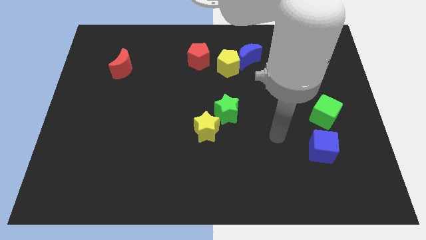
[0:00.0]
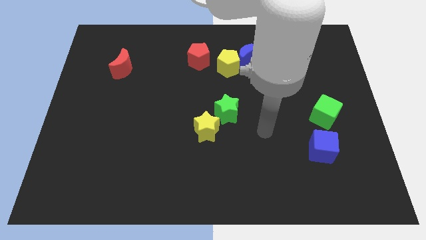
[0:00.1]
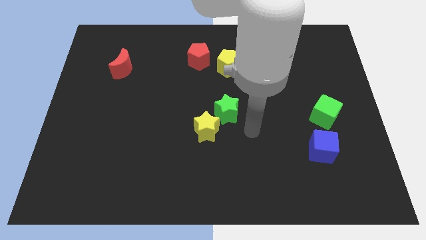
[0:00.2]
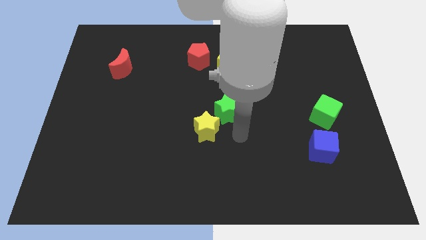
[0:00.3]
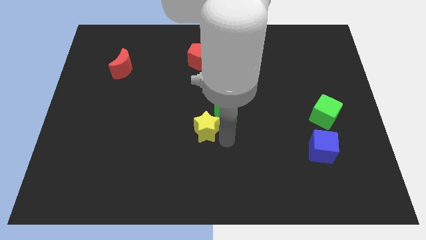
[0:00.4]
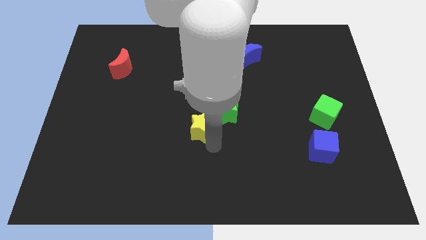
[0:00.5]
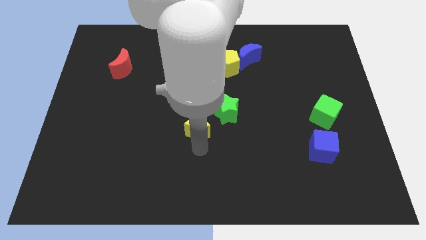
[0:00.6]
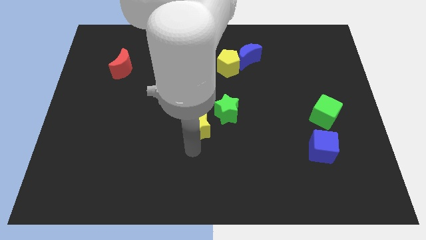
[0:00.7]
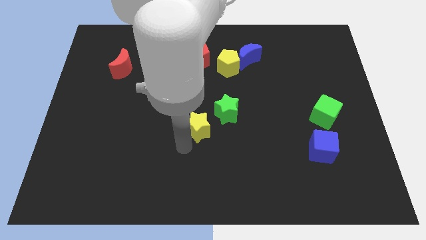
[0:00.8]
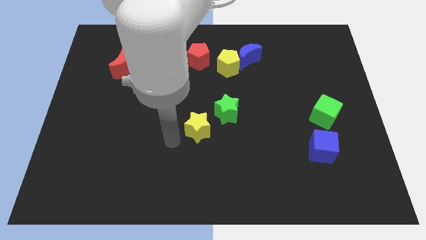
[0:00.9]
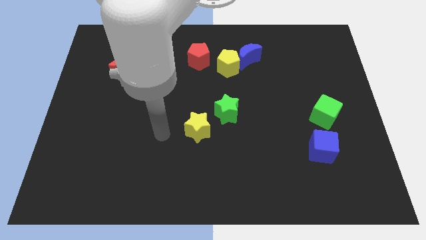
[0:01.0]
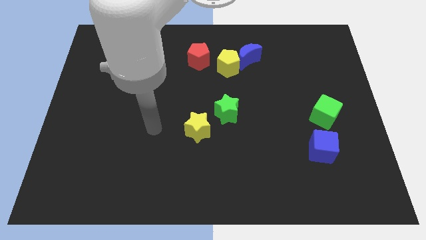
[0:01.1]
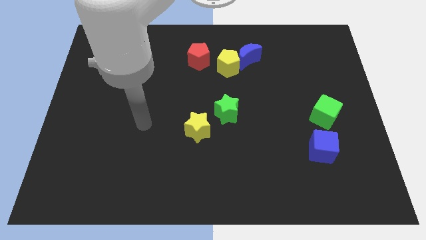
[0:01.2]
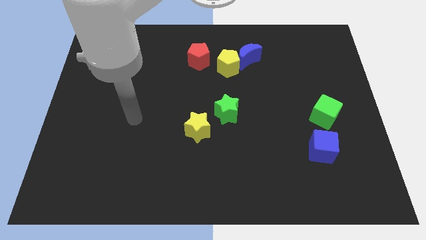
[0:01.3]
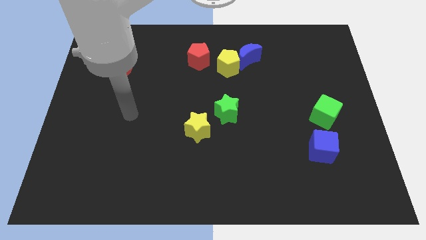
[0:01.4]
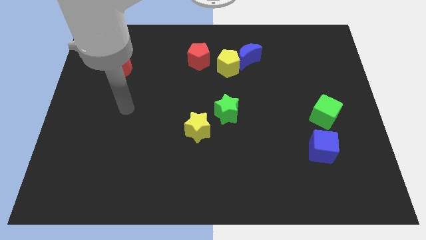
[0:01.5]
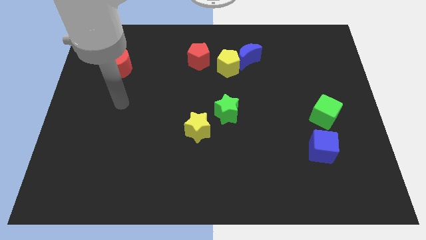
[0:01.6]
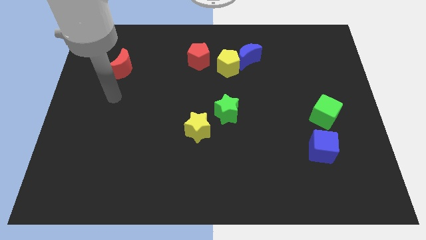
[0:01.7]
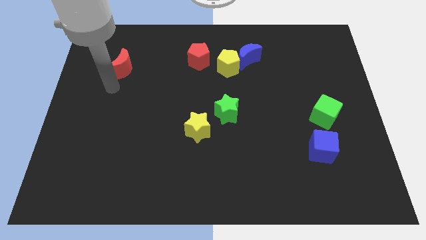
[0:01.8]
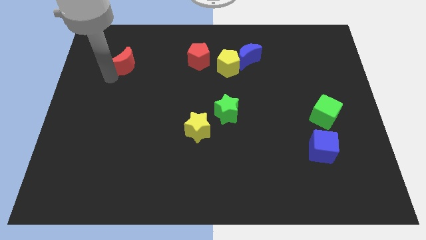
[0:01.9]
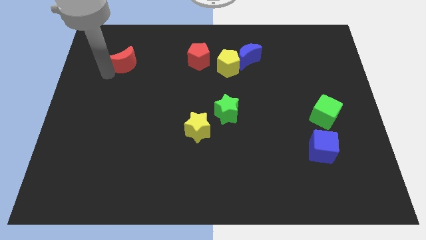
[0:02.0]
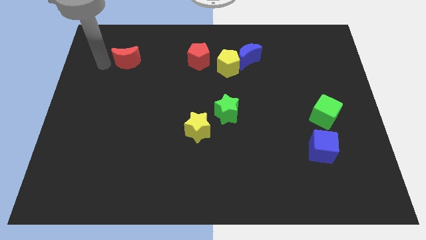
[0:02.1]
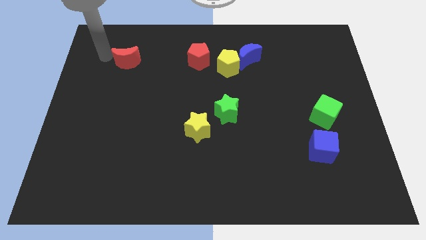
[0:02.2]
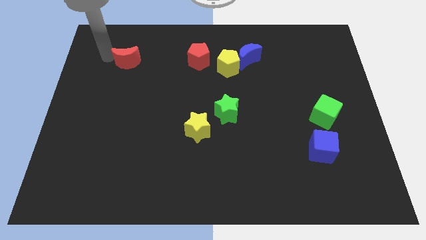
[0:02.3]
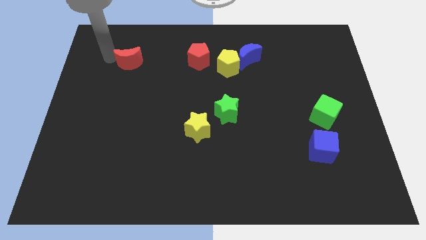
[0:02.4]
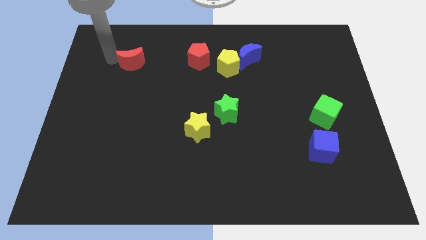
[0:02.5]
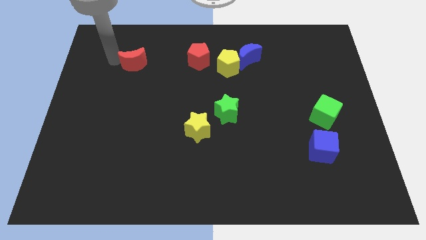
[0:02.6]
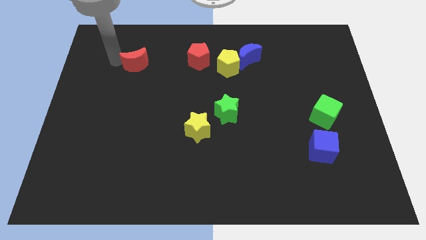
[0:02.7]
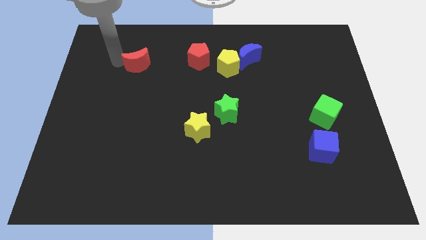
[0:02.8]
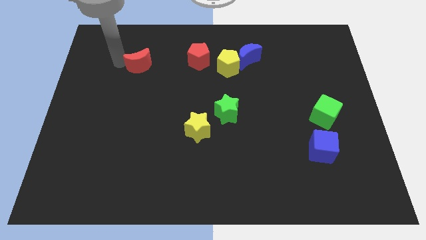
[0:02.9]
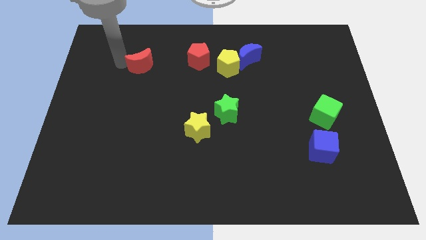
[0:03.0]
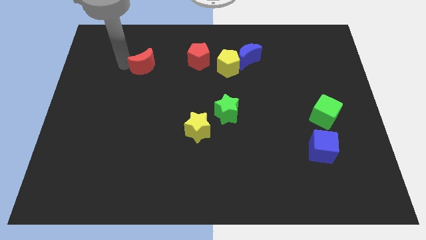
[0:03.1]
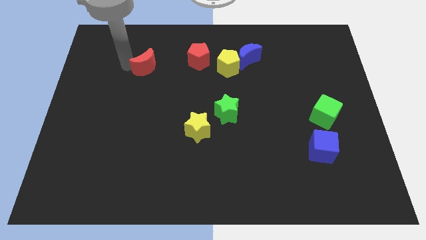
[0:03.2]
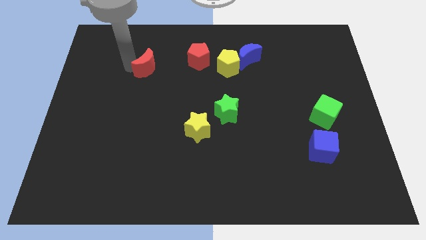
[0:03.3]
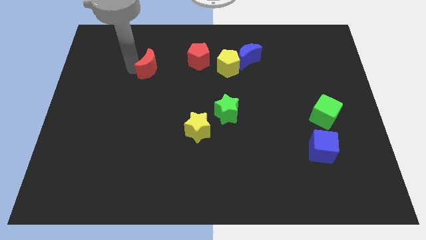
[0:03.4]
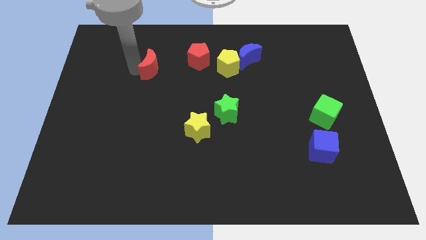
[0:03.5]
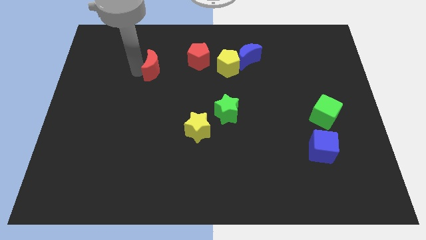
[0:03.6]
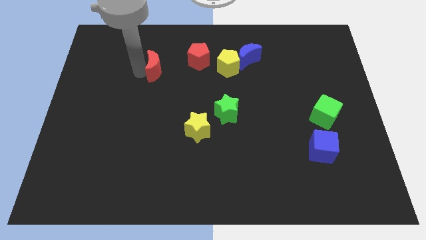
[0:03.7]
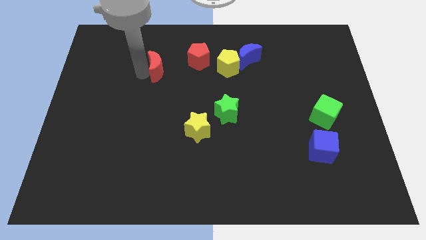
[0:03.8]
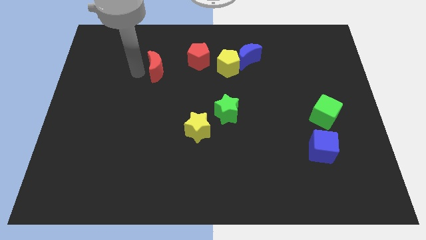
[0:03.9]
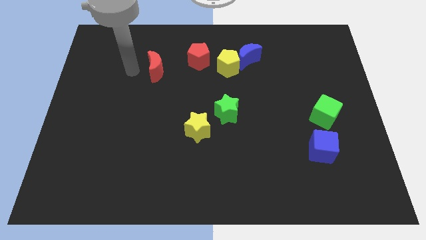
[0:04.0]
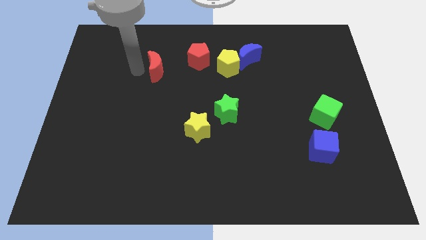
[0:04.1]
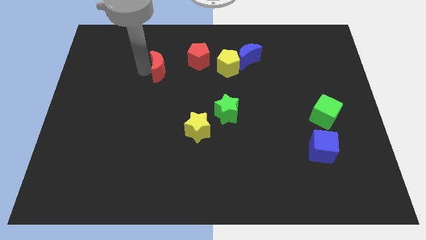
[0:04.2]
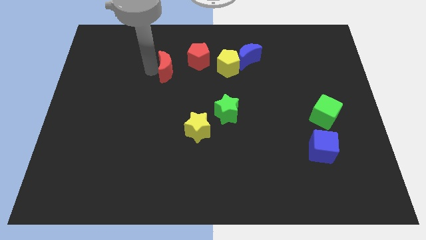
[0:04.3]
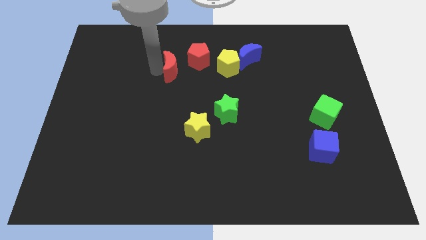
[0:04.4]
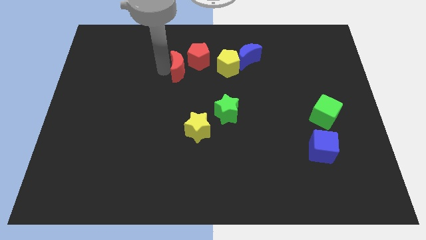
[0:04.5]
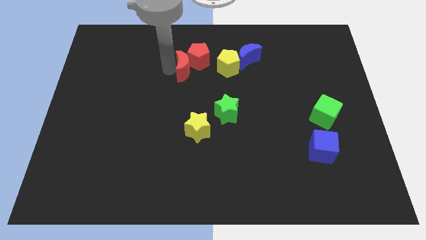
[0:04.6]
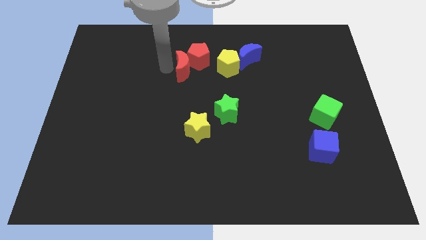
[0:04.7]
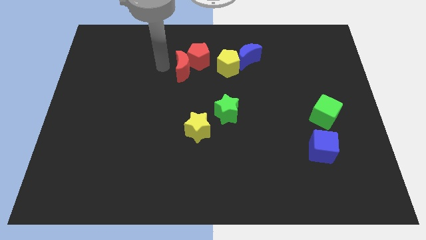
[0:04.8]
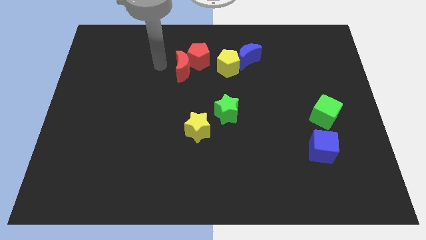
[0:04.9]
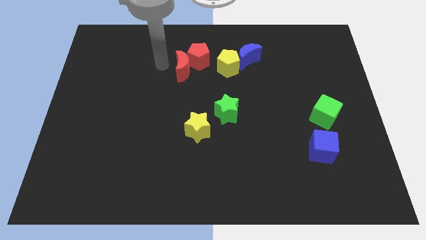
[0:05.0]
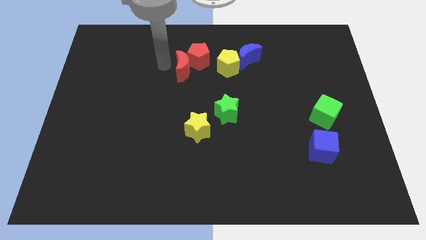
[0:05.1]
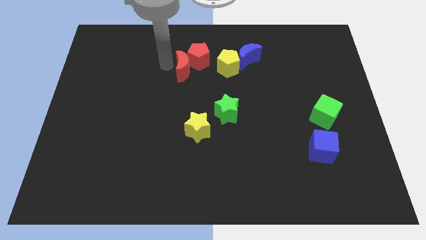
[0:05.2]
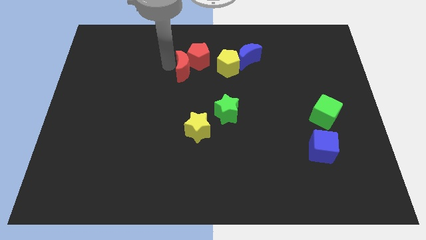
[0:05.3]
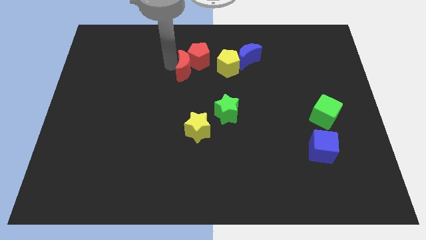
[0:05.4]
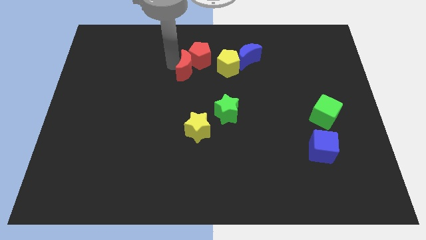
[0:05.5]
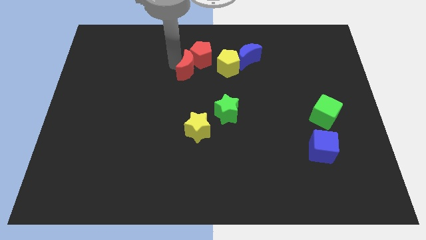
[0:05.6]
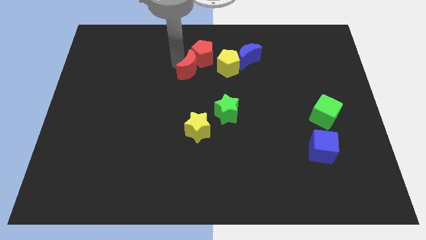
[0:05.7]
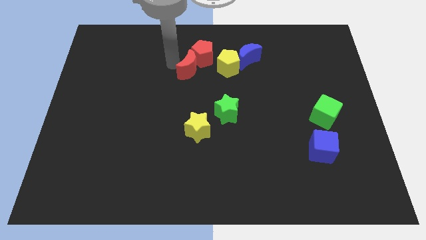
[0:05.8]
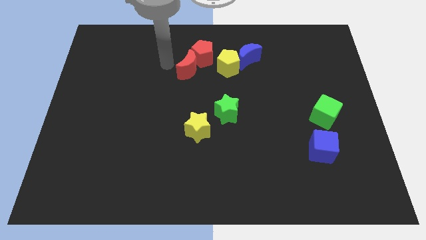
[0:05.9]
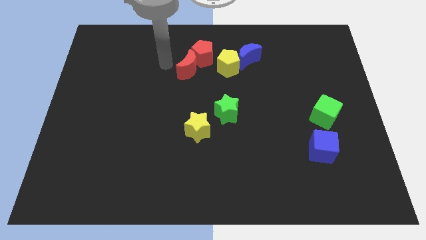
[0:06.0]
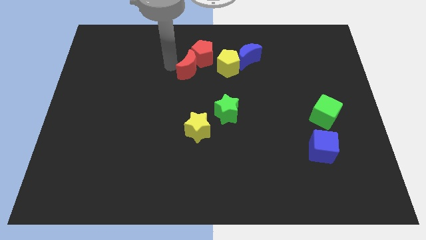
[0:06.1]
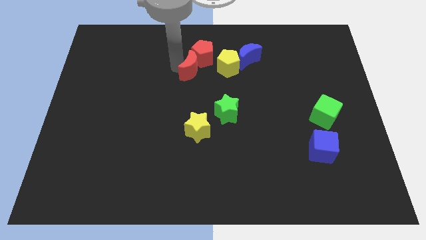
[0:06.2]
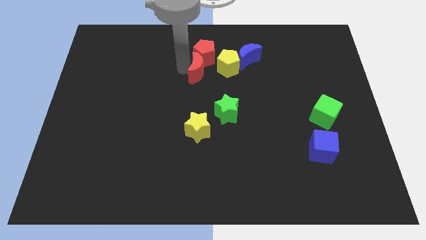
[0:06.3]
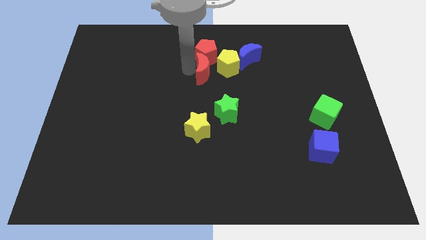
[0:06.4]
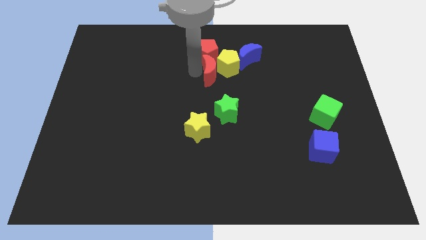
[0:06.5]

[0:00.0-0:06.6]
push the red moon to the bottom left side of the blue moon

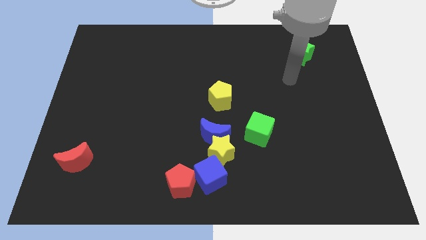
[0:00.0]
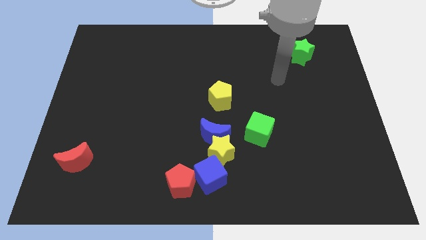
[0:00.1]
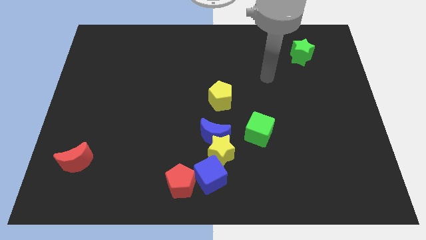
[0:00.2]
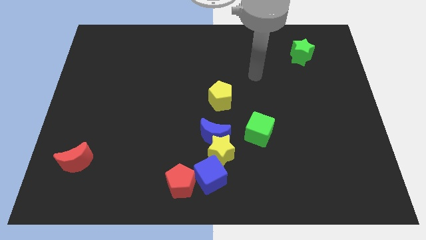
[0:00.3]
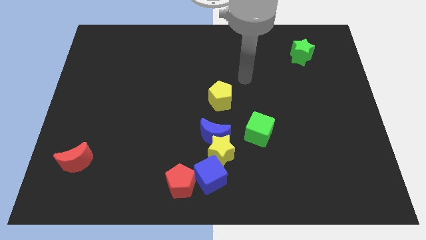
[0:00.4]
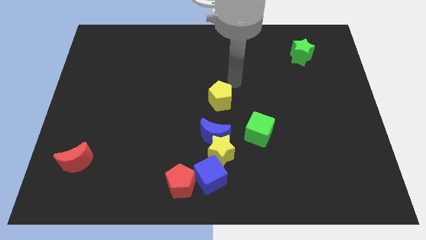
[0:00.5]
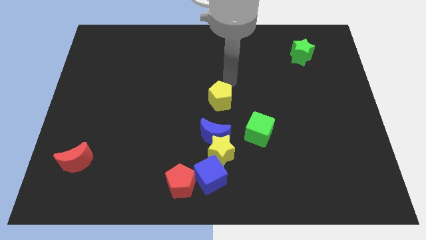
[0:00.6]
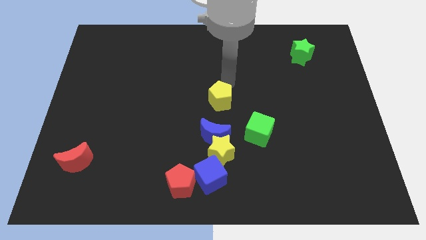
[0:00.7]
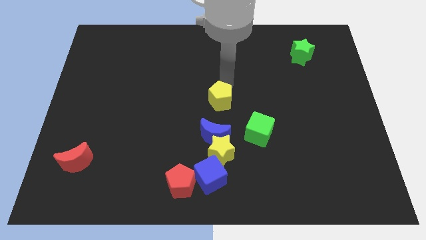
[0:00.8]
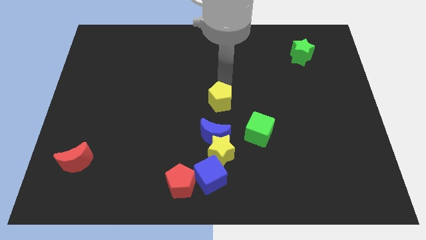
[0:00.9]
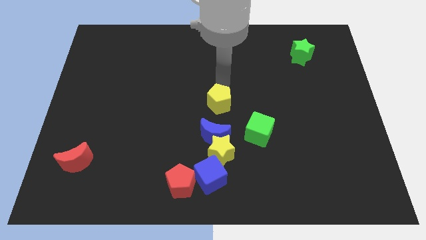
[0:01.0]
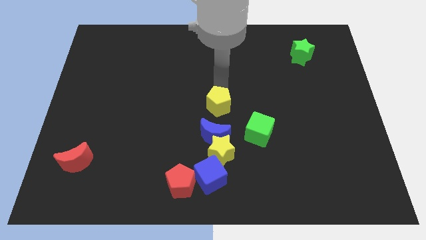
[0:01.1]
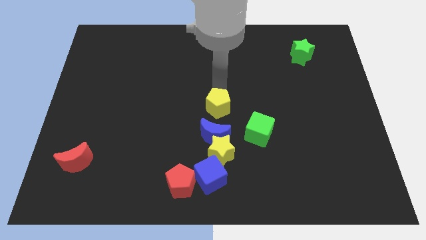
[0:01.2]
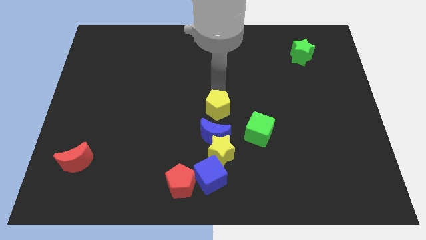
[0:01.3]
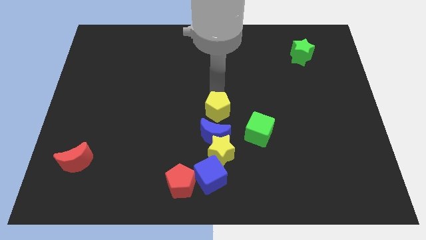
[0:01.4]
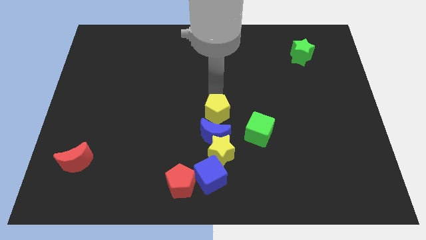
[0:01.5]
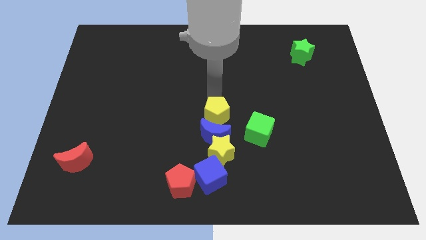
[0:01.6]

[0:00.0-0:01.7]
slide the yellow pentagon to the top of the blue cube
